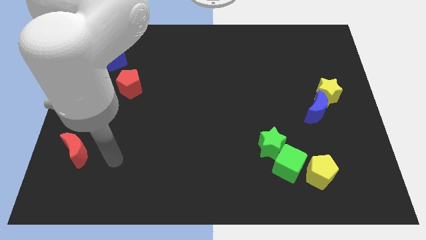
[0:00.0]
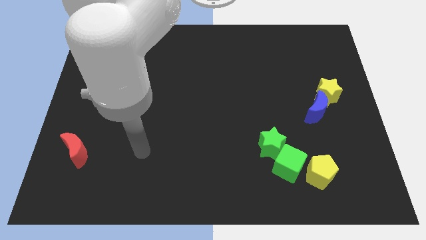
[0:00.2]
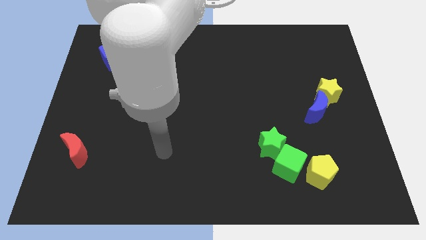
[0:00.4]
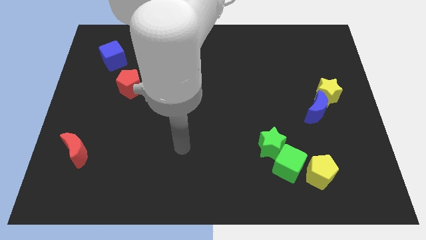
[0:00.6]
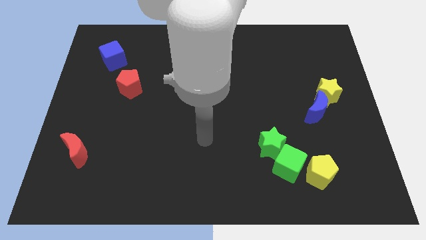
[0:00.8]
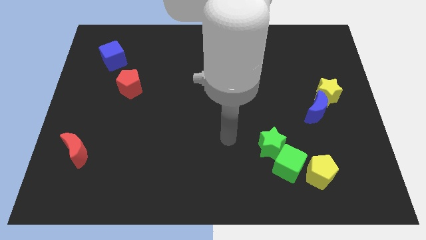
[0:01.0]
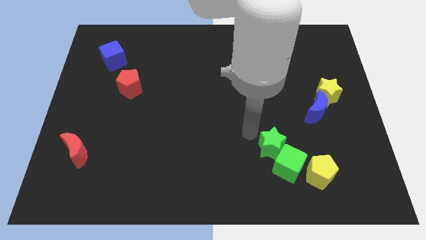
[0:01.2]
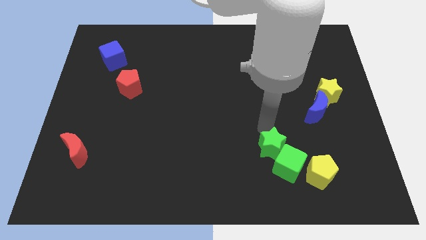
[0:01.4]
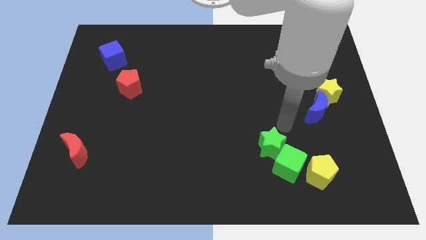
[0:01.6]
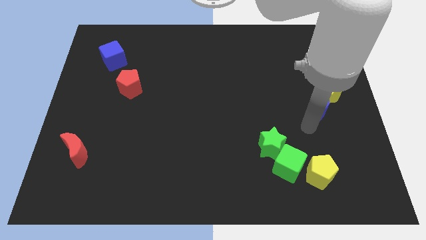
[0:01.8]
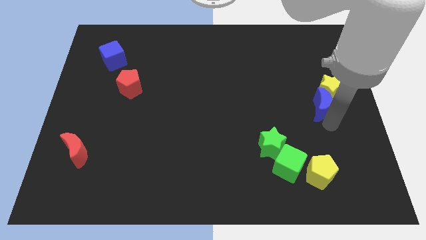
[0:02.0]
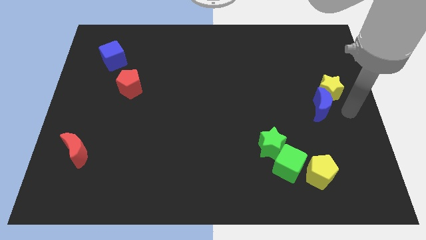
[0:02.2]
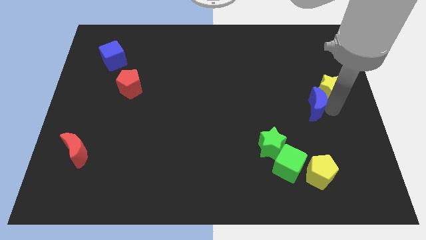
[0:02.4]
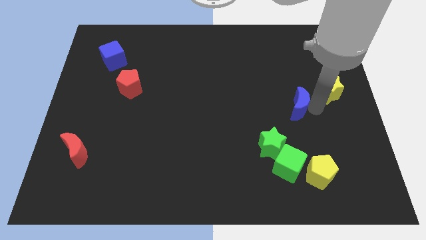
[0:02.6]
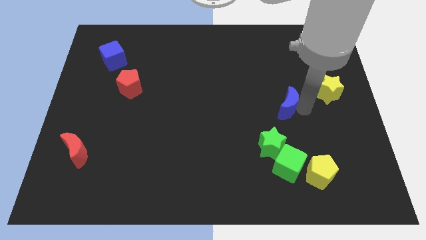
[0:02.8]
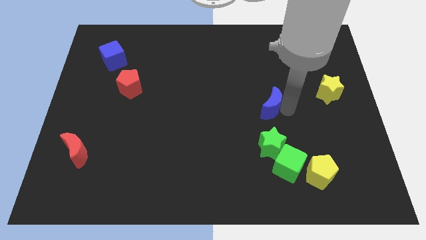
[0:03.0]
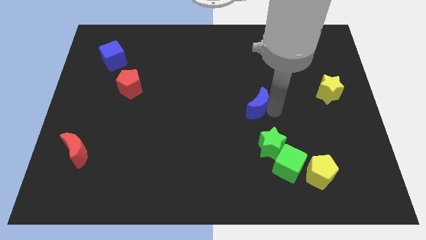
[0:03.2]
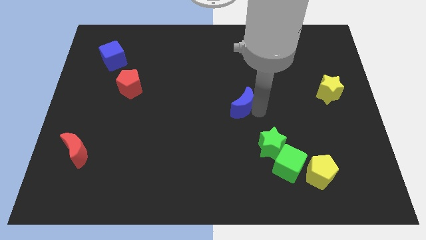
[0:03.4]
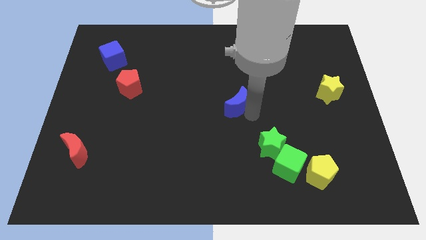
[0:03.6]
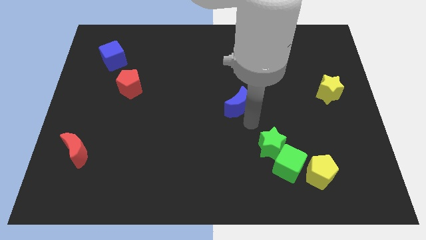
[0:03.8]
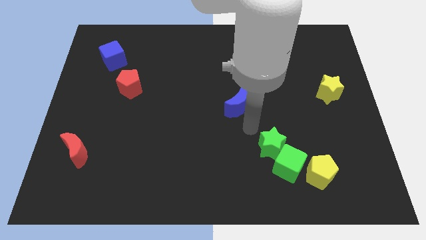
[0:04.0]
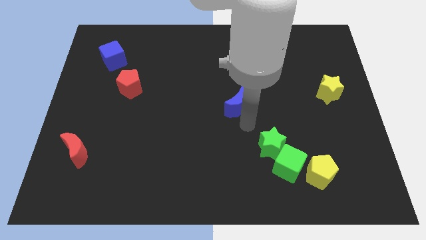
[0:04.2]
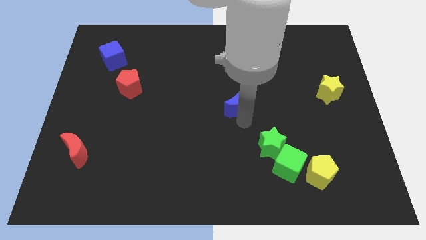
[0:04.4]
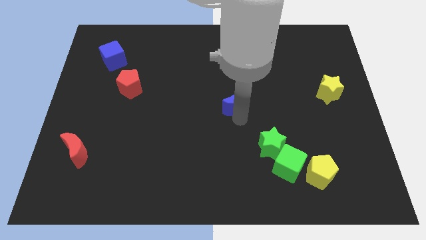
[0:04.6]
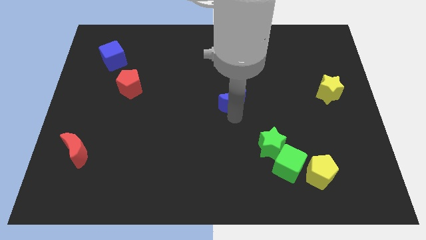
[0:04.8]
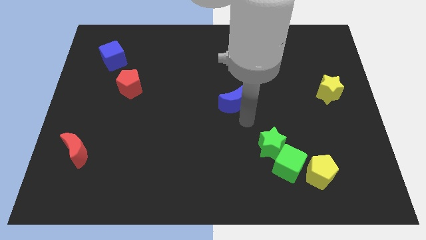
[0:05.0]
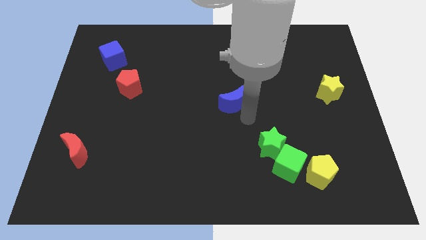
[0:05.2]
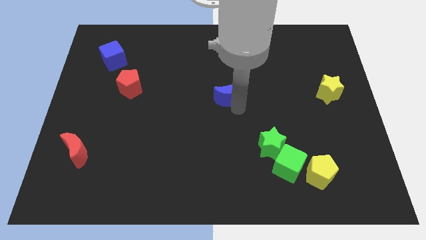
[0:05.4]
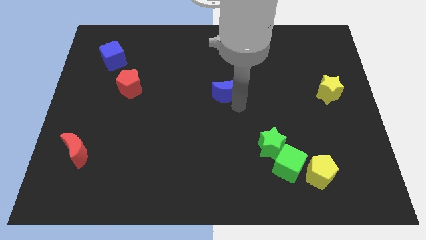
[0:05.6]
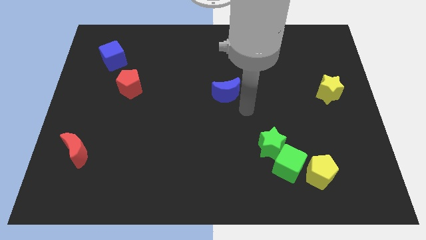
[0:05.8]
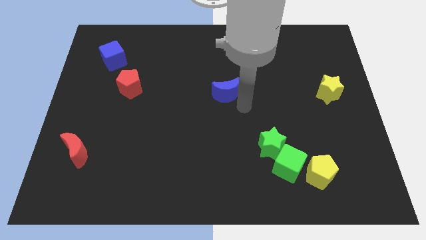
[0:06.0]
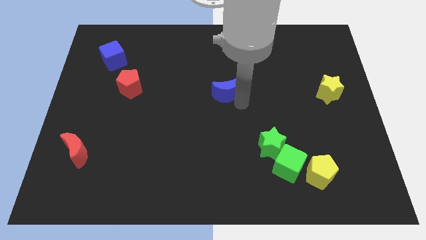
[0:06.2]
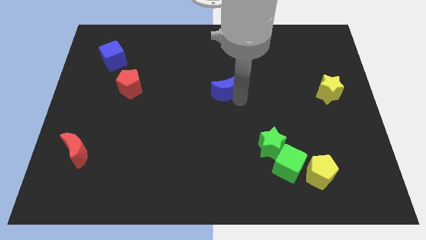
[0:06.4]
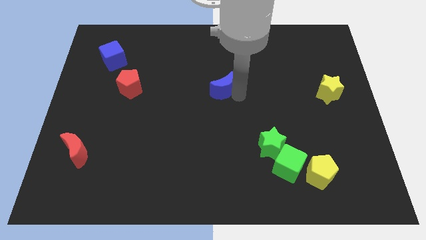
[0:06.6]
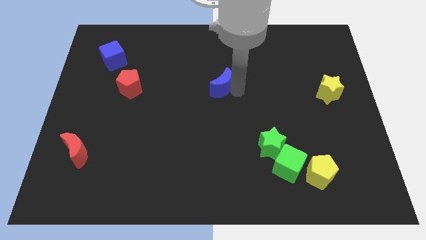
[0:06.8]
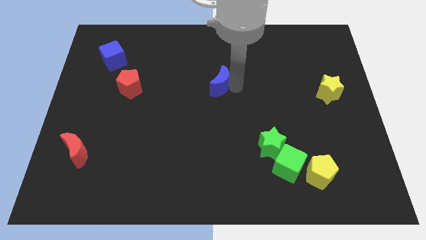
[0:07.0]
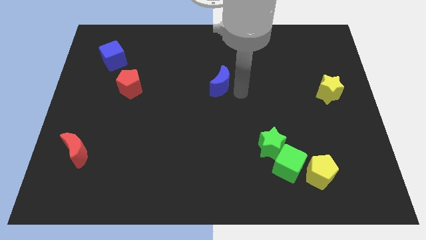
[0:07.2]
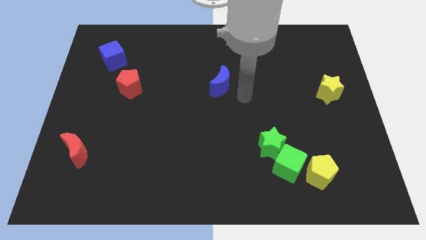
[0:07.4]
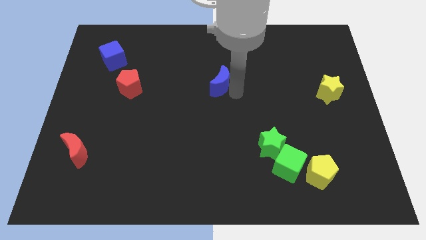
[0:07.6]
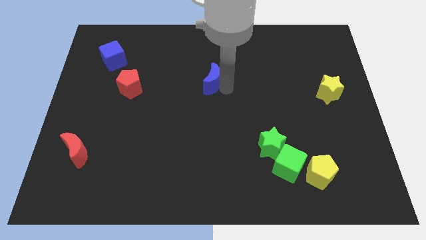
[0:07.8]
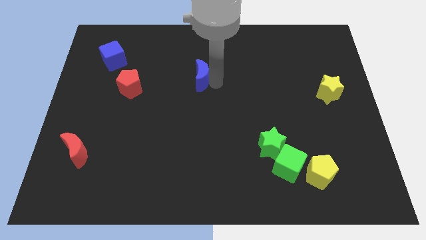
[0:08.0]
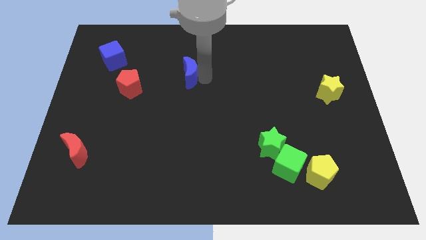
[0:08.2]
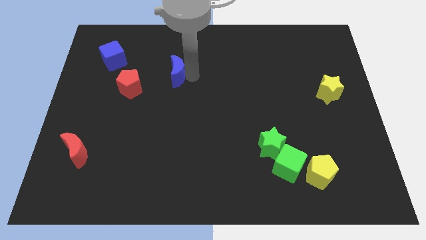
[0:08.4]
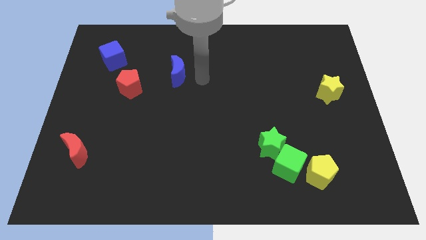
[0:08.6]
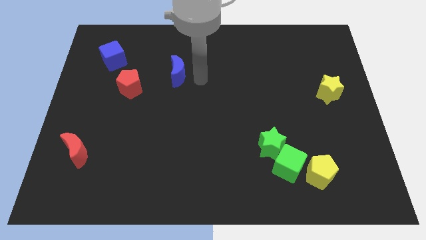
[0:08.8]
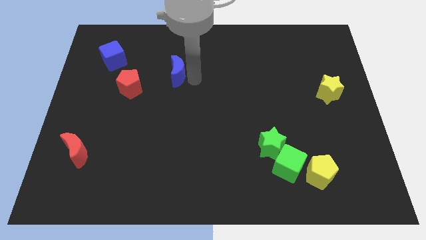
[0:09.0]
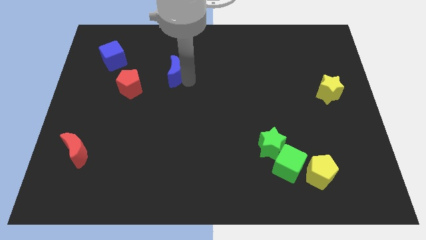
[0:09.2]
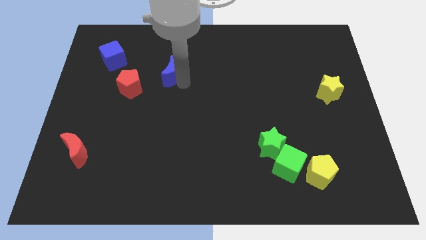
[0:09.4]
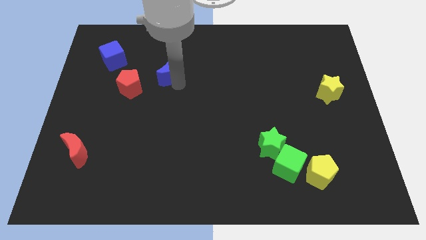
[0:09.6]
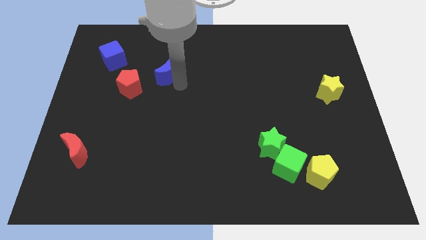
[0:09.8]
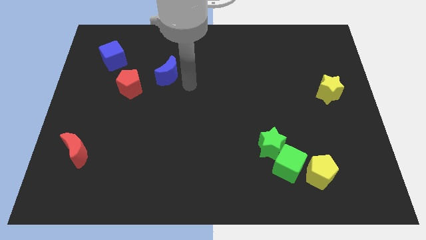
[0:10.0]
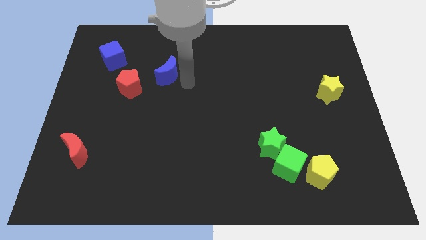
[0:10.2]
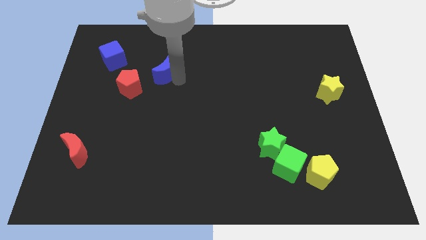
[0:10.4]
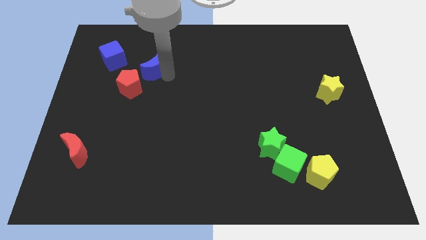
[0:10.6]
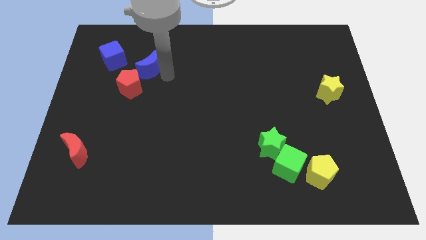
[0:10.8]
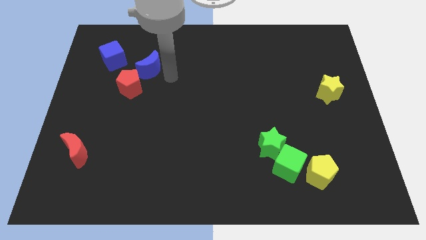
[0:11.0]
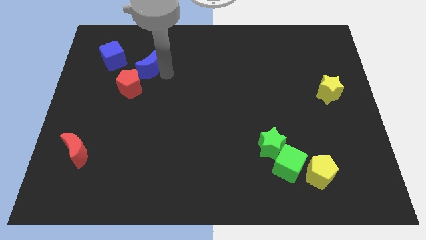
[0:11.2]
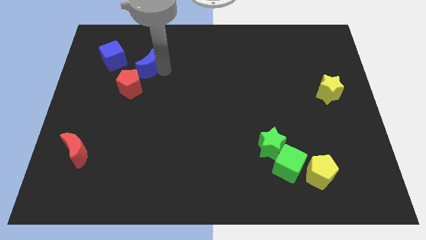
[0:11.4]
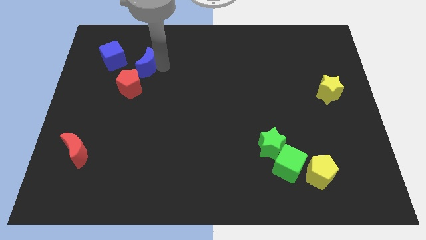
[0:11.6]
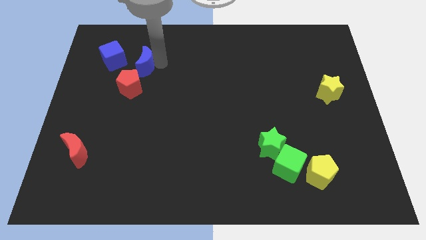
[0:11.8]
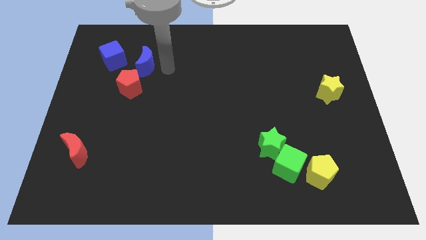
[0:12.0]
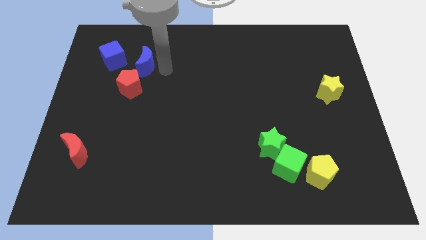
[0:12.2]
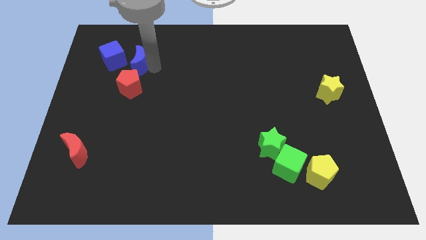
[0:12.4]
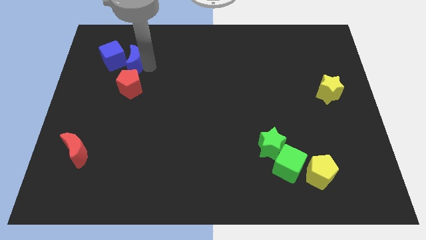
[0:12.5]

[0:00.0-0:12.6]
slide the blue moon towards the blue cube
